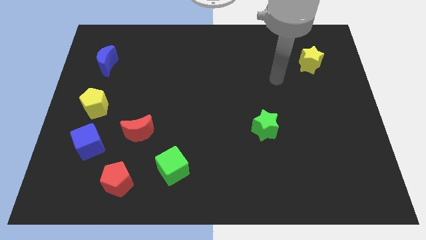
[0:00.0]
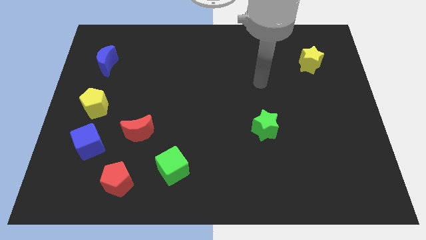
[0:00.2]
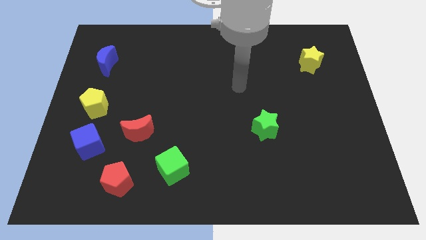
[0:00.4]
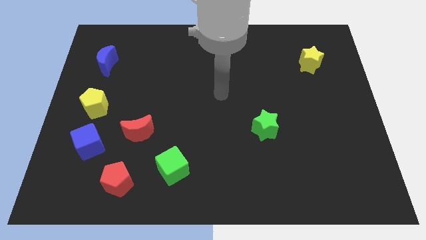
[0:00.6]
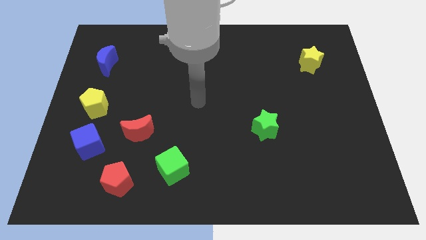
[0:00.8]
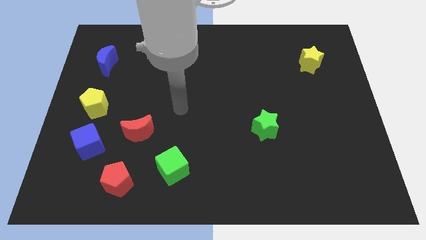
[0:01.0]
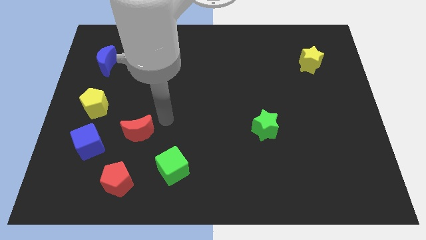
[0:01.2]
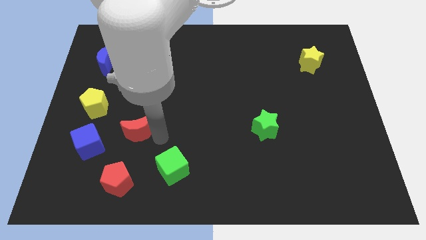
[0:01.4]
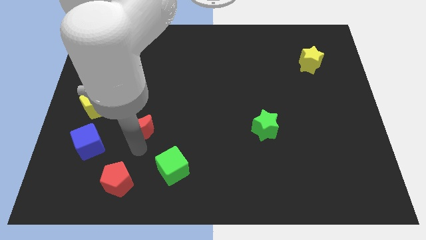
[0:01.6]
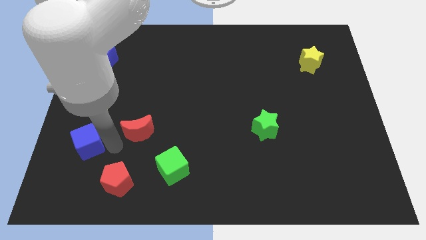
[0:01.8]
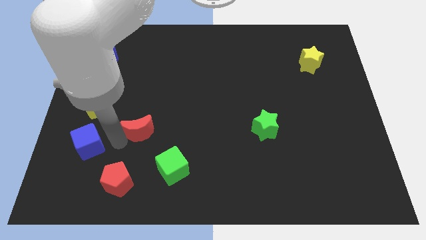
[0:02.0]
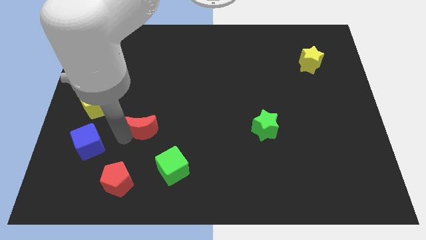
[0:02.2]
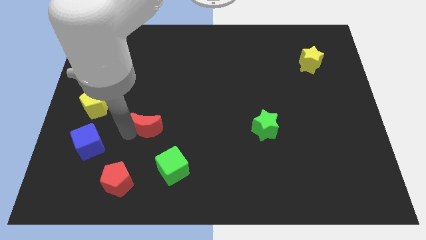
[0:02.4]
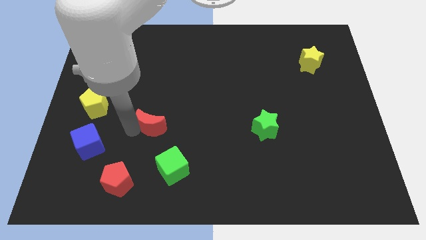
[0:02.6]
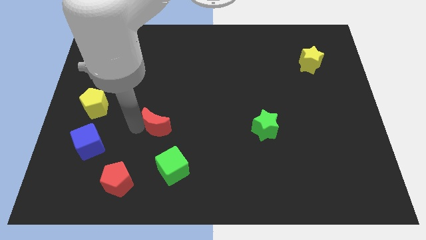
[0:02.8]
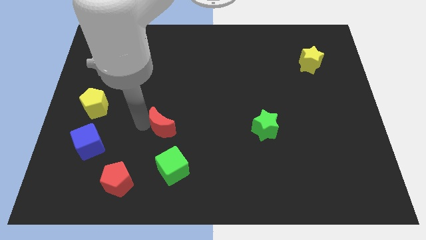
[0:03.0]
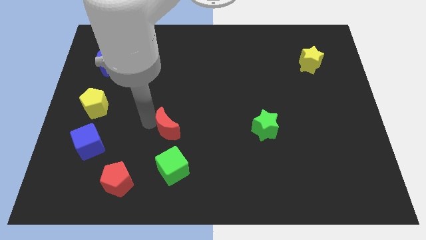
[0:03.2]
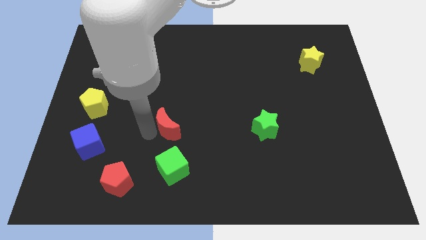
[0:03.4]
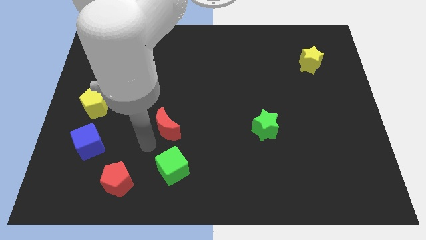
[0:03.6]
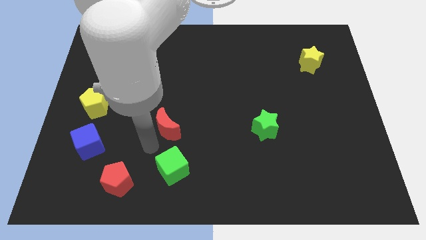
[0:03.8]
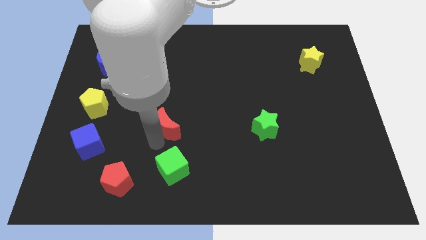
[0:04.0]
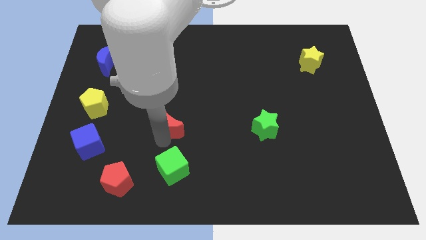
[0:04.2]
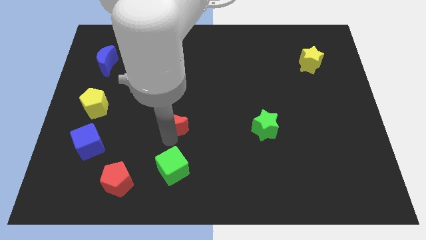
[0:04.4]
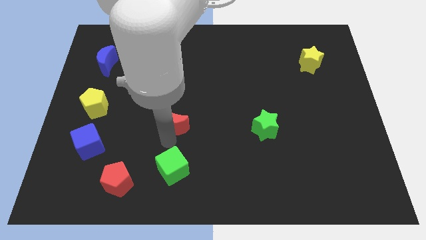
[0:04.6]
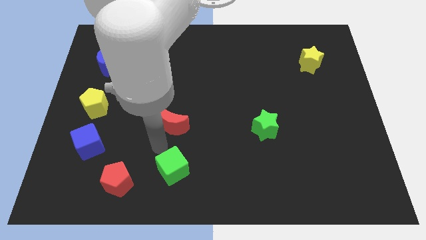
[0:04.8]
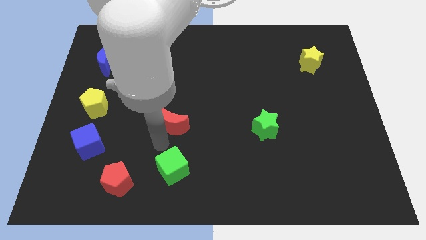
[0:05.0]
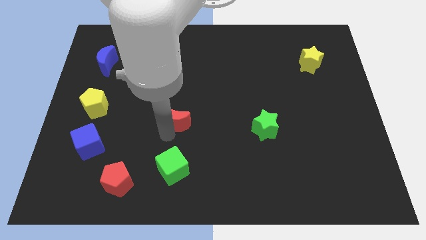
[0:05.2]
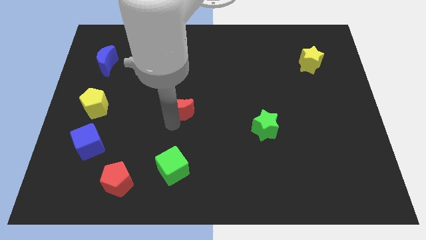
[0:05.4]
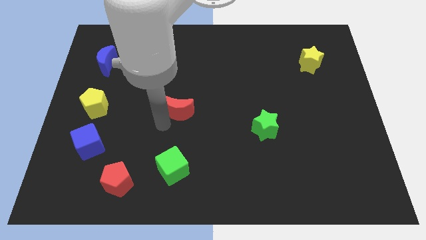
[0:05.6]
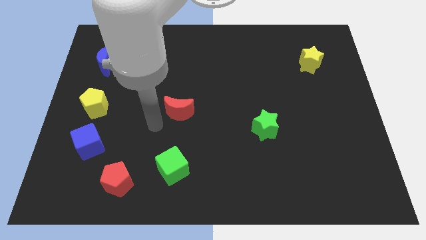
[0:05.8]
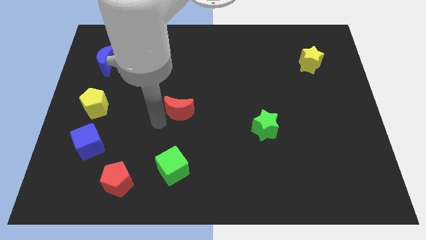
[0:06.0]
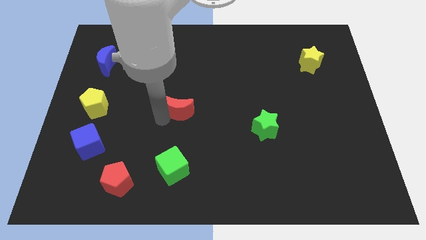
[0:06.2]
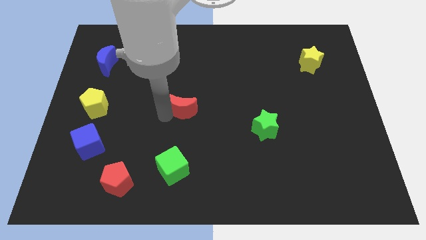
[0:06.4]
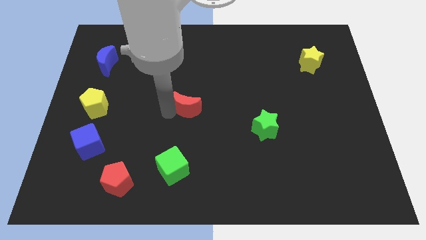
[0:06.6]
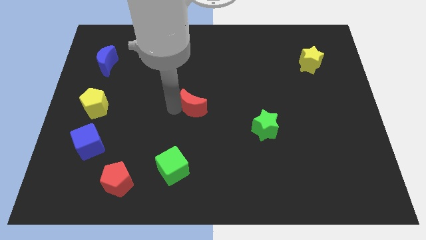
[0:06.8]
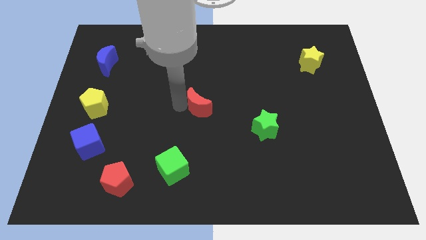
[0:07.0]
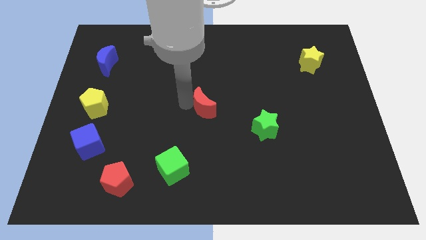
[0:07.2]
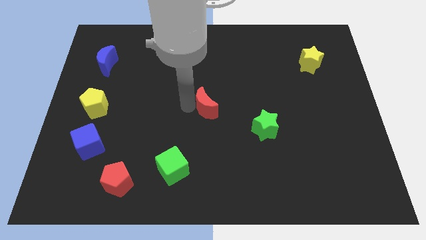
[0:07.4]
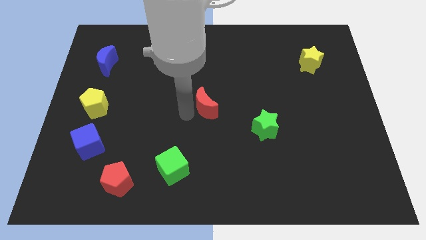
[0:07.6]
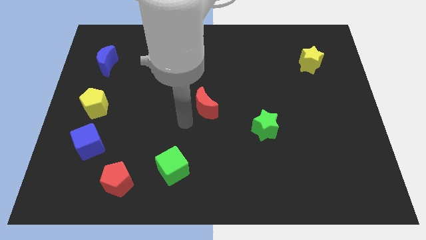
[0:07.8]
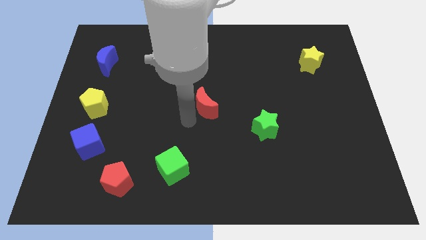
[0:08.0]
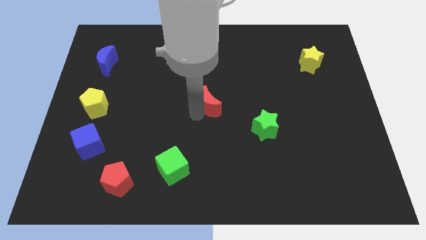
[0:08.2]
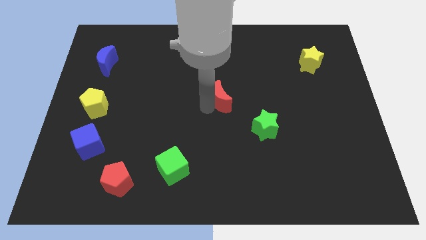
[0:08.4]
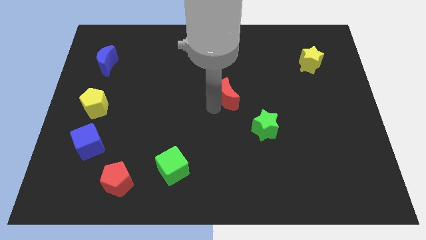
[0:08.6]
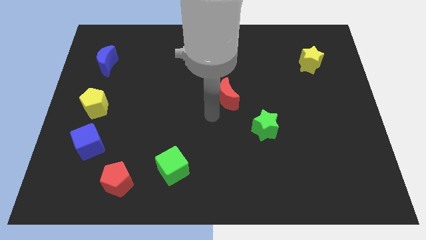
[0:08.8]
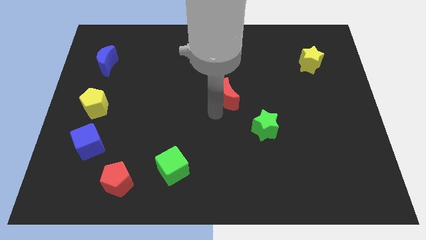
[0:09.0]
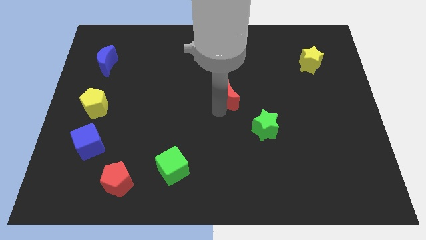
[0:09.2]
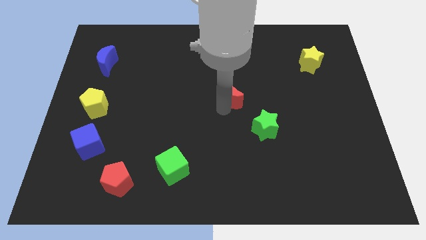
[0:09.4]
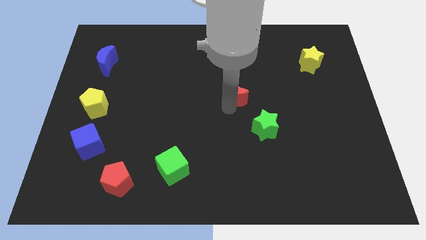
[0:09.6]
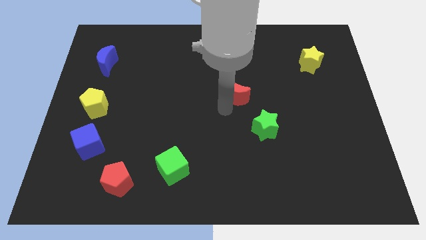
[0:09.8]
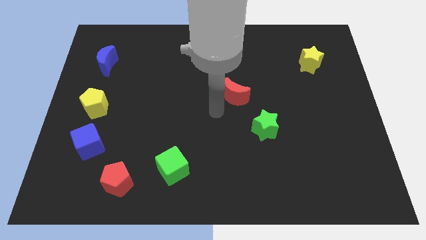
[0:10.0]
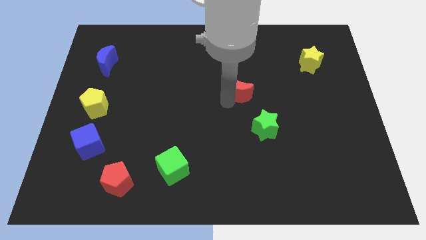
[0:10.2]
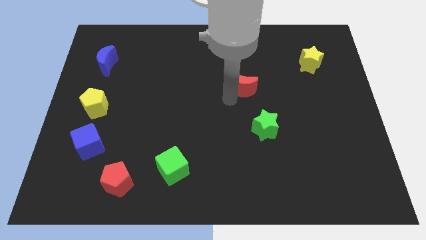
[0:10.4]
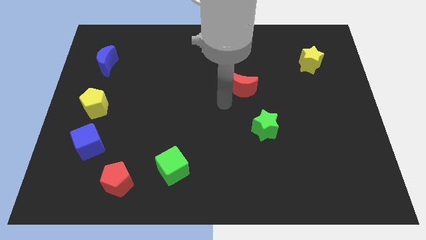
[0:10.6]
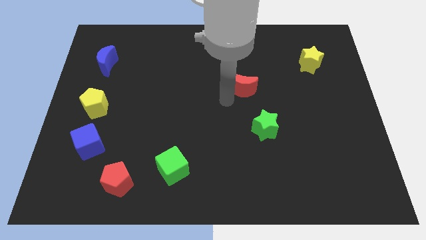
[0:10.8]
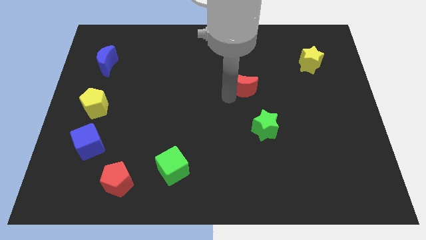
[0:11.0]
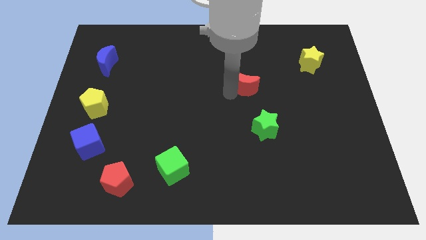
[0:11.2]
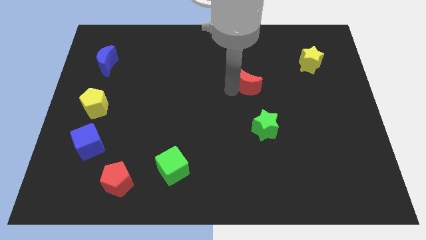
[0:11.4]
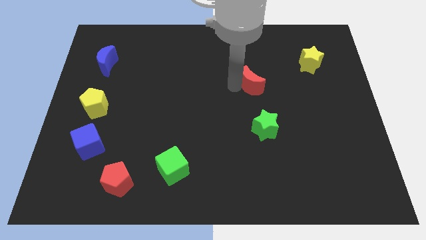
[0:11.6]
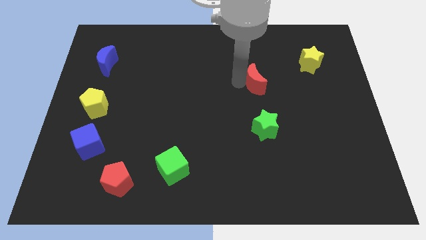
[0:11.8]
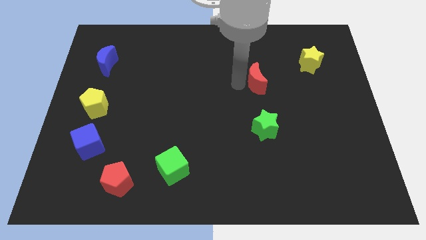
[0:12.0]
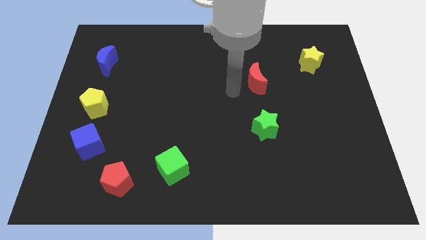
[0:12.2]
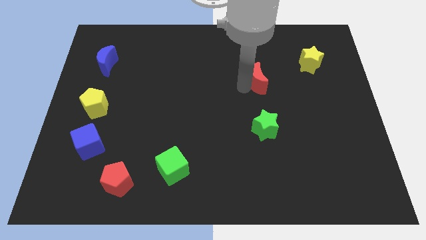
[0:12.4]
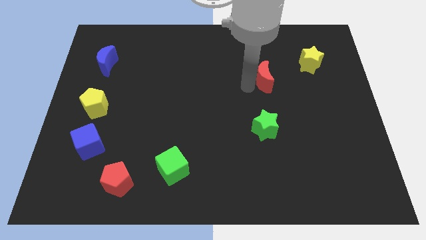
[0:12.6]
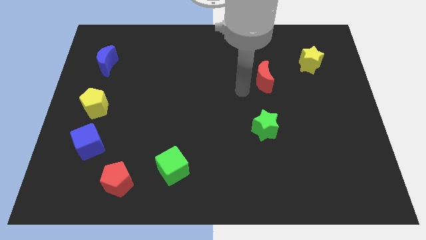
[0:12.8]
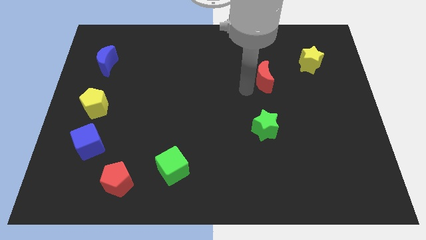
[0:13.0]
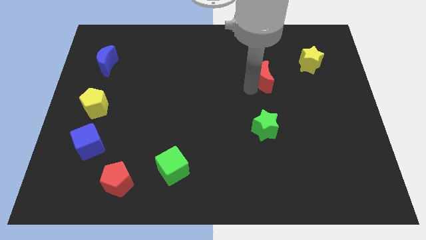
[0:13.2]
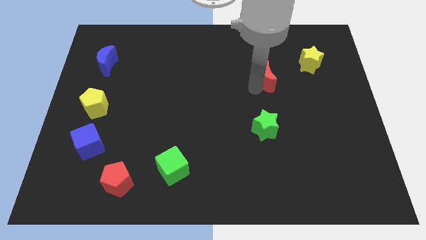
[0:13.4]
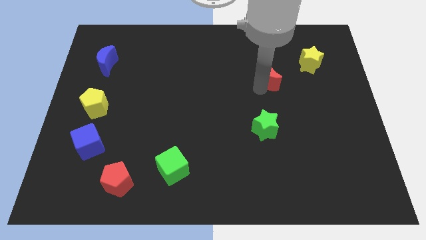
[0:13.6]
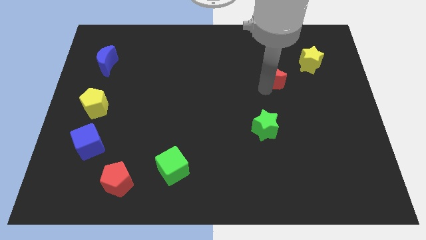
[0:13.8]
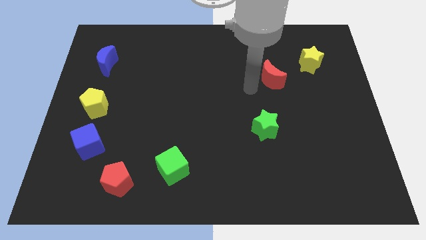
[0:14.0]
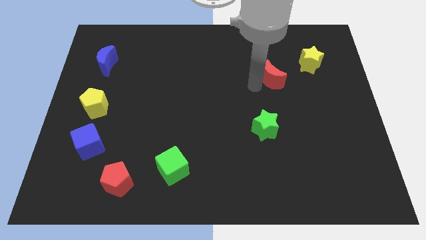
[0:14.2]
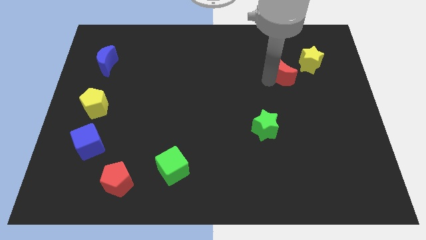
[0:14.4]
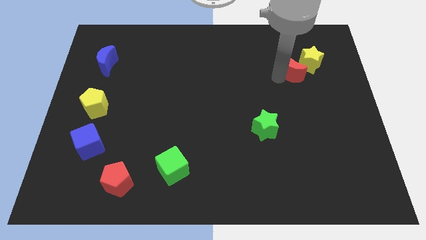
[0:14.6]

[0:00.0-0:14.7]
push the red moon towards the yellow star
